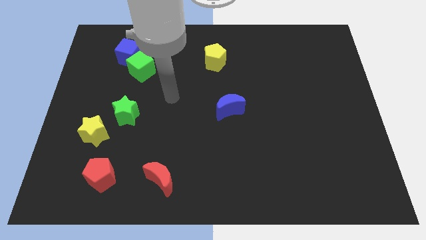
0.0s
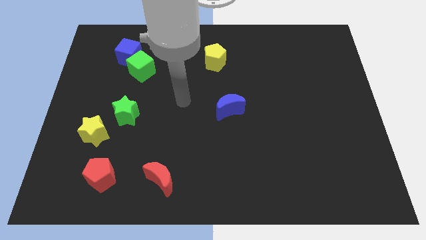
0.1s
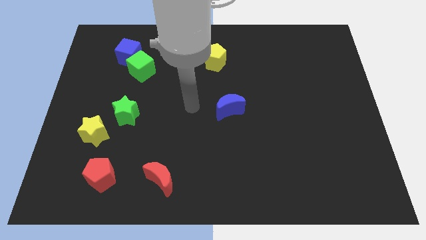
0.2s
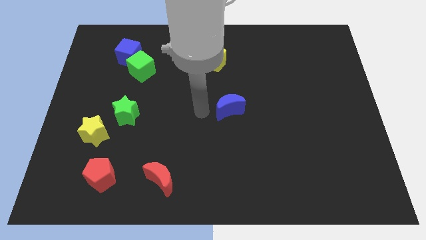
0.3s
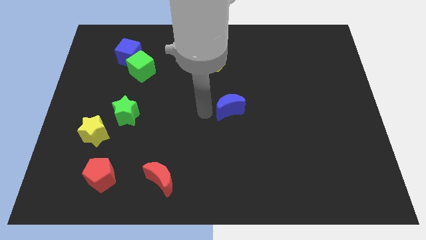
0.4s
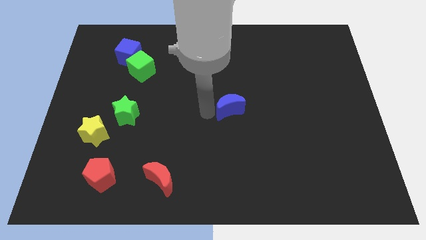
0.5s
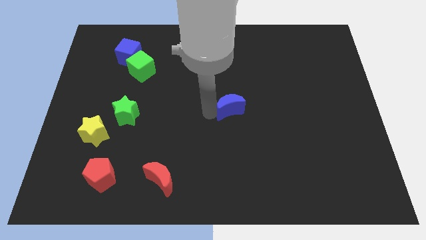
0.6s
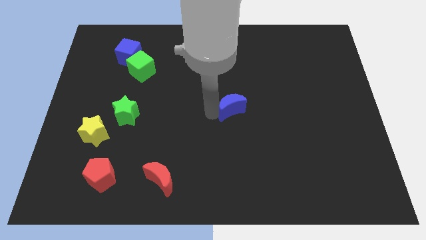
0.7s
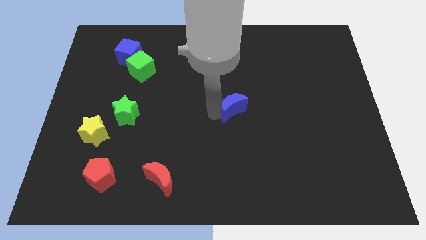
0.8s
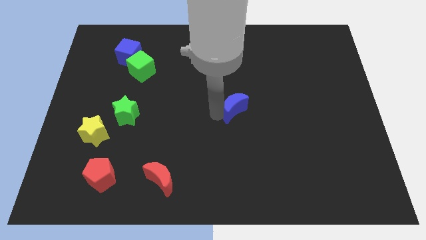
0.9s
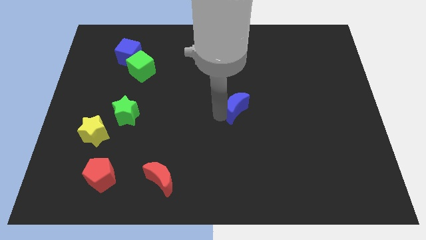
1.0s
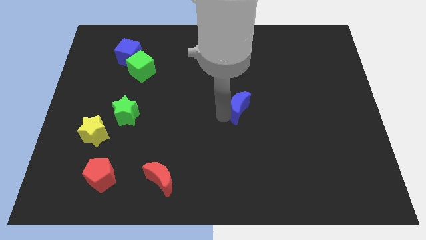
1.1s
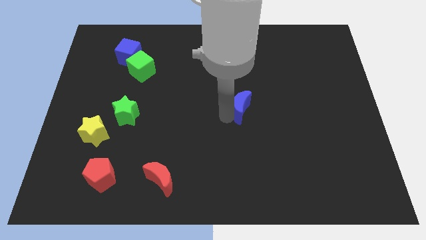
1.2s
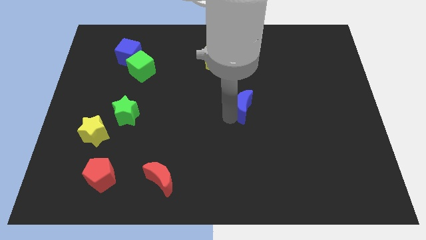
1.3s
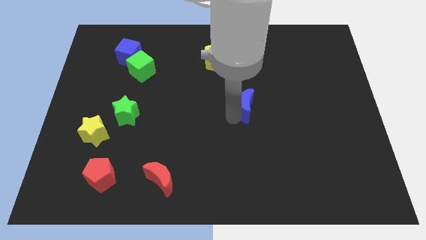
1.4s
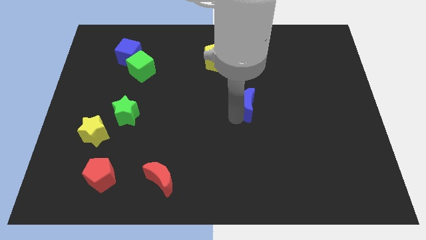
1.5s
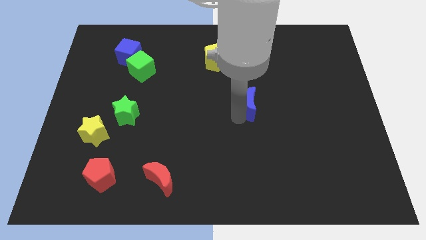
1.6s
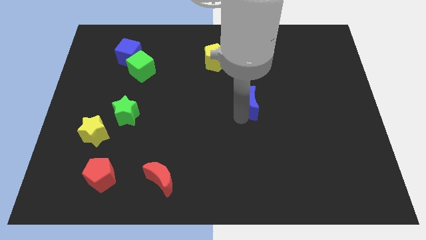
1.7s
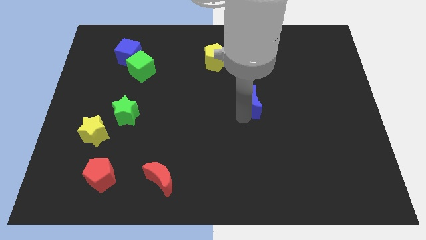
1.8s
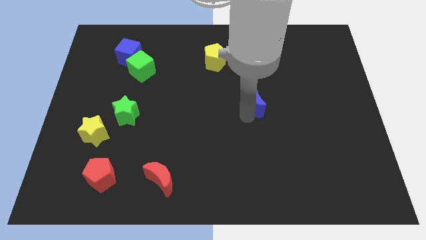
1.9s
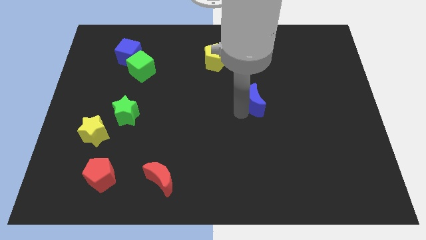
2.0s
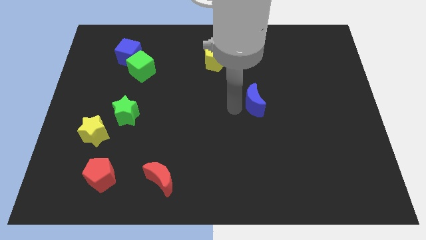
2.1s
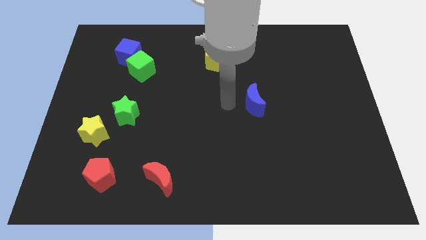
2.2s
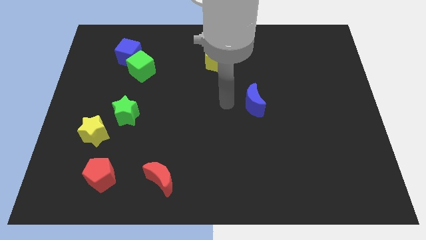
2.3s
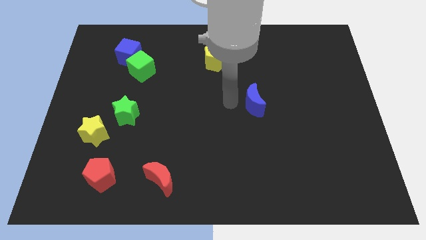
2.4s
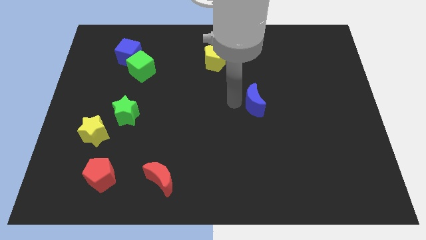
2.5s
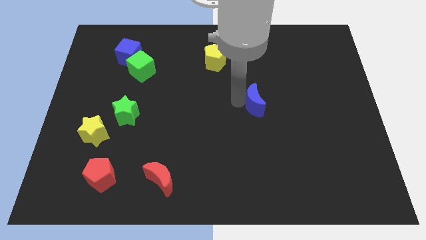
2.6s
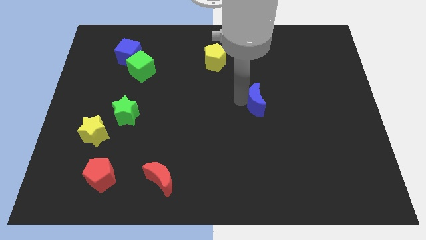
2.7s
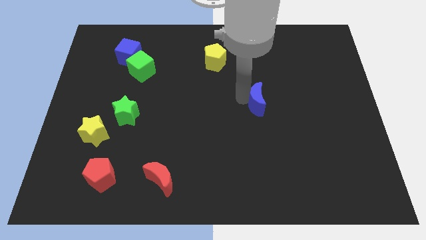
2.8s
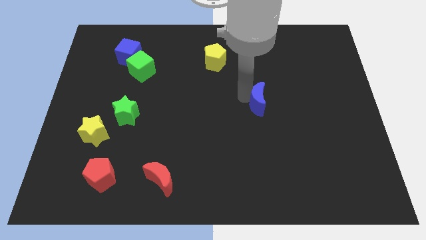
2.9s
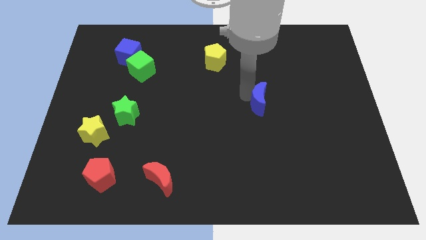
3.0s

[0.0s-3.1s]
slightly push the blue moon to the right

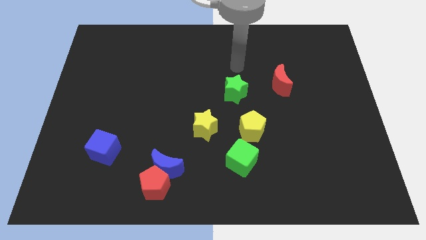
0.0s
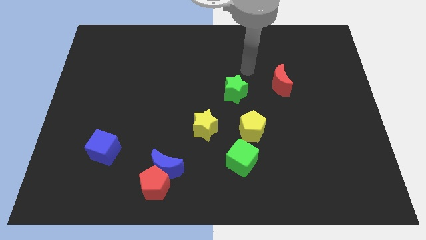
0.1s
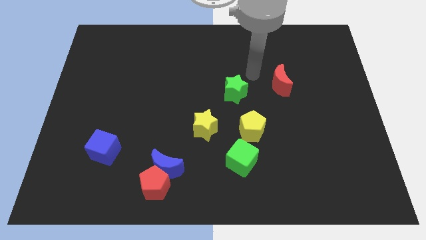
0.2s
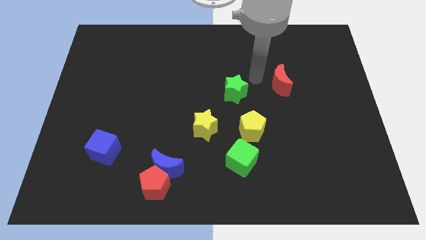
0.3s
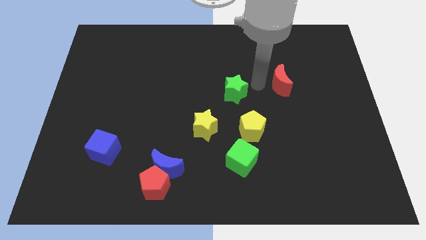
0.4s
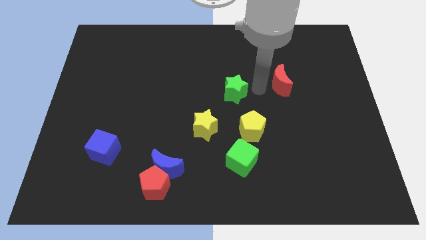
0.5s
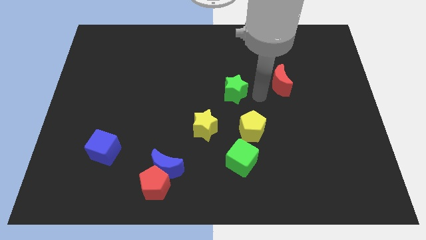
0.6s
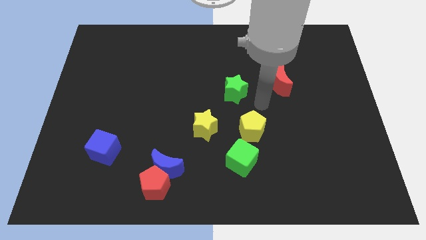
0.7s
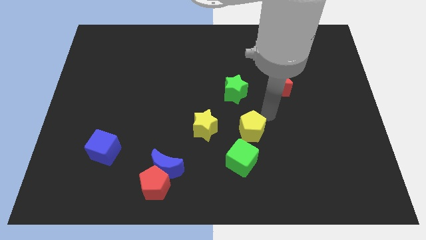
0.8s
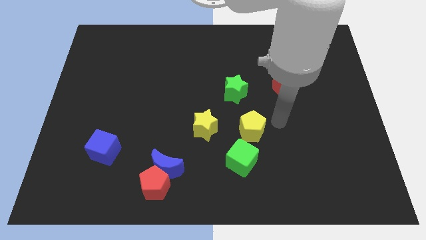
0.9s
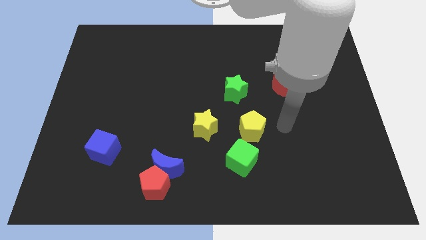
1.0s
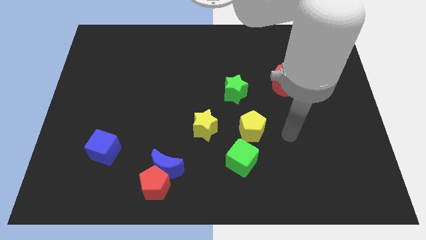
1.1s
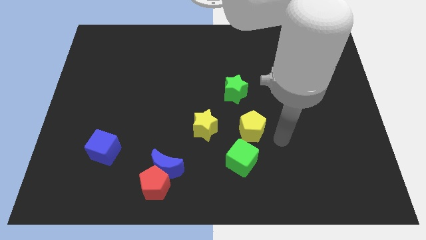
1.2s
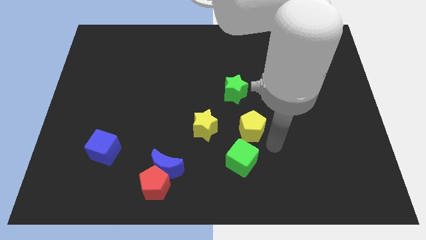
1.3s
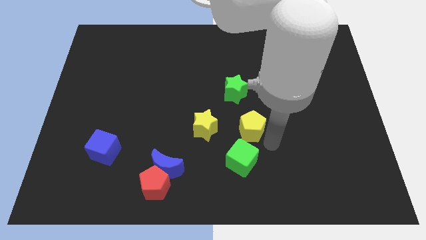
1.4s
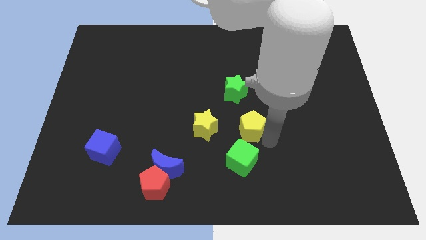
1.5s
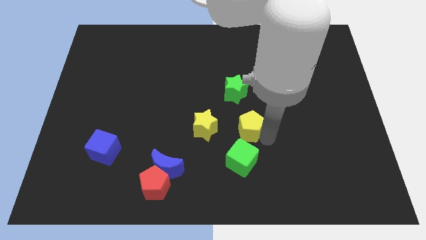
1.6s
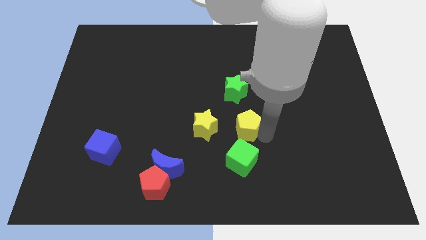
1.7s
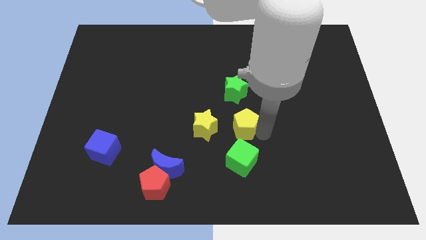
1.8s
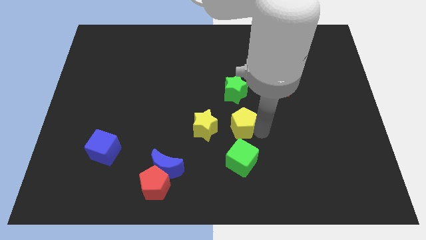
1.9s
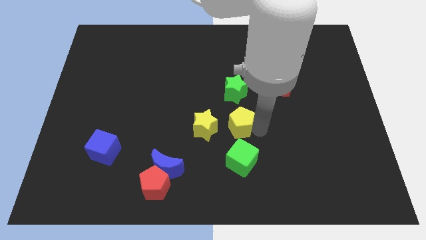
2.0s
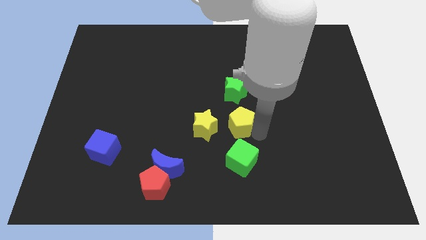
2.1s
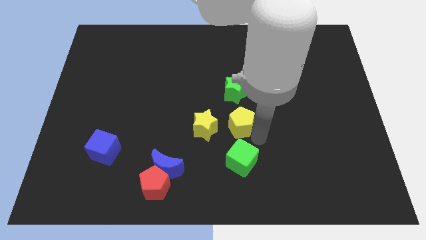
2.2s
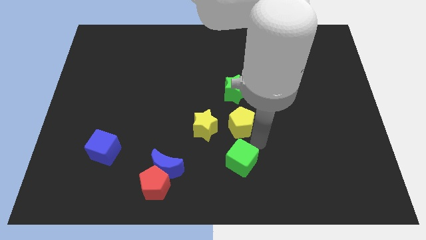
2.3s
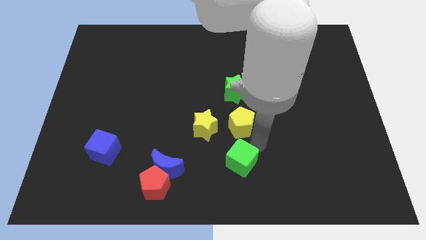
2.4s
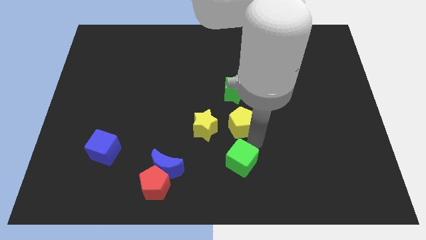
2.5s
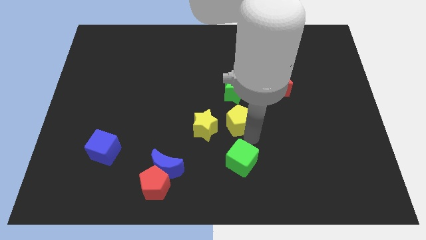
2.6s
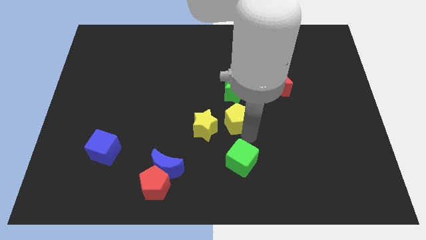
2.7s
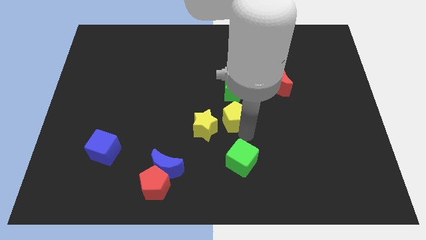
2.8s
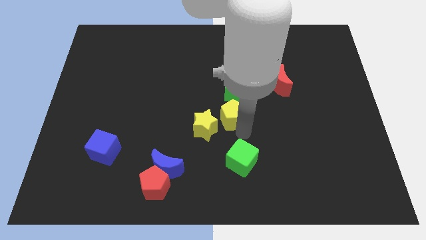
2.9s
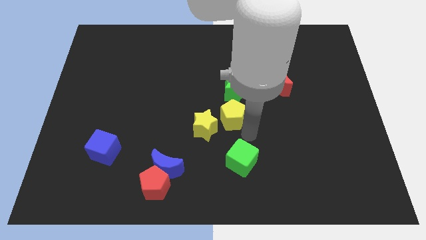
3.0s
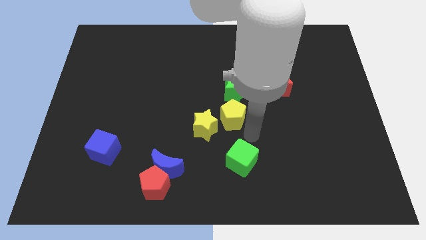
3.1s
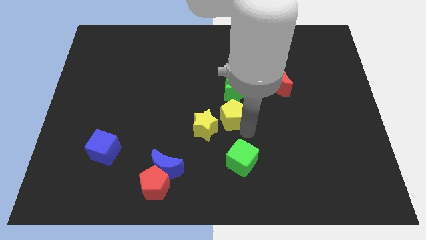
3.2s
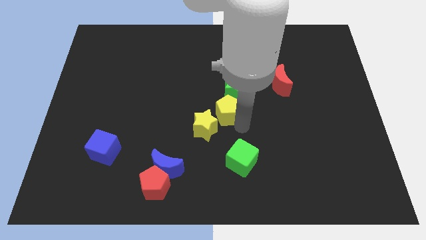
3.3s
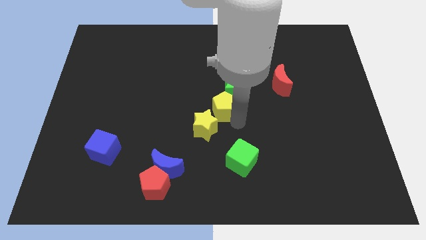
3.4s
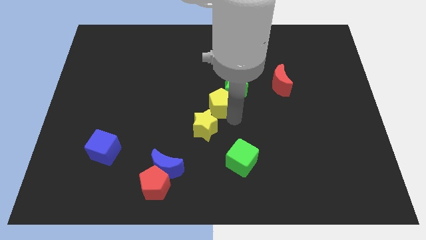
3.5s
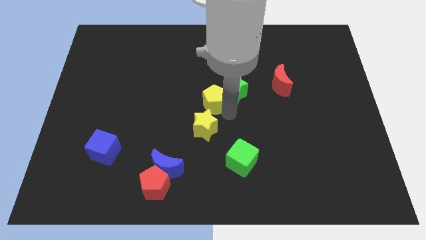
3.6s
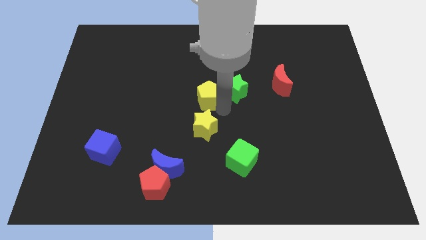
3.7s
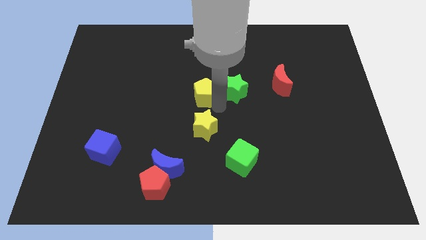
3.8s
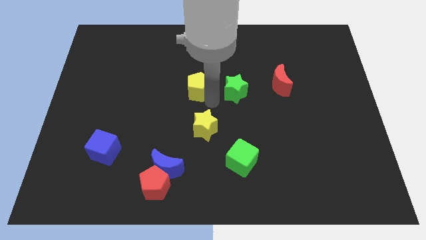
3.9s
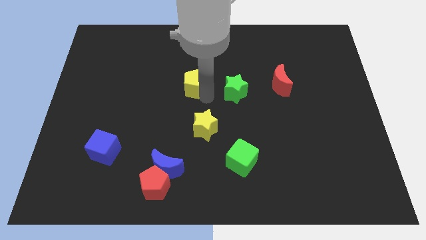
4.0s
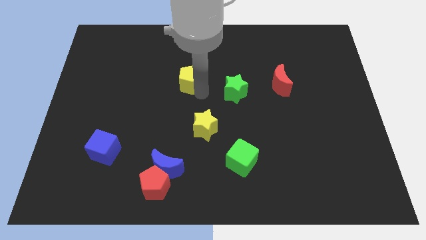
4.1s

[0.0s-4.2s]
slide the yellow pentagon up and then to the left

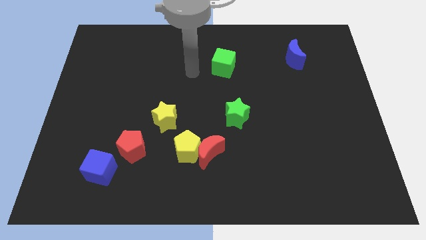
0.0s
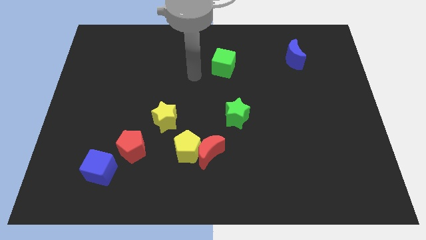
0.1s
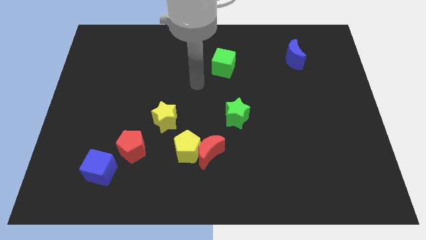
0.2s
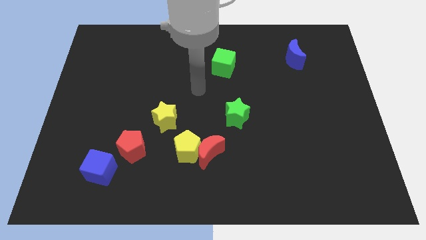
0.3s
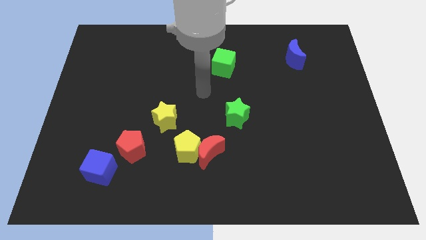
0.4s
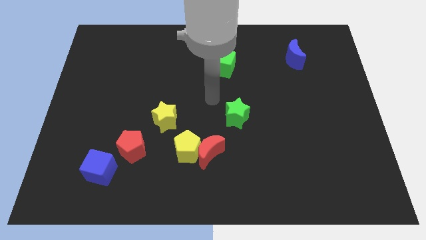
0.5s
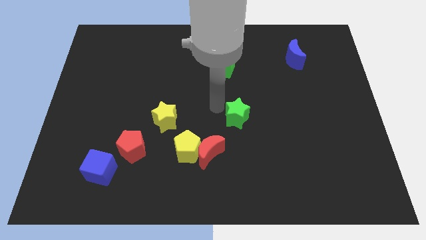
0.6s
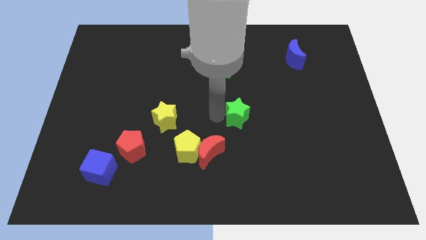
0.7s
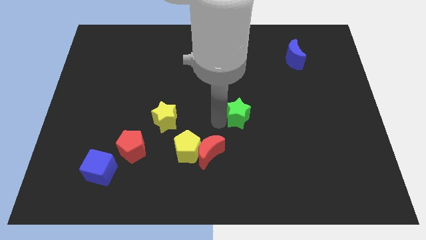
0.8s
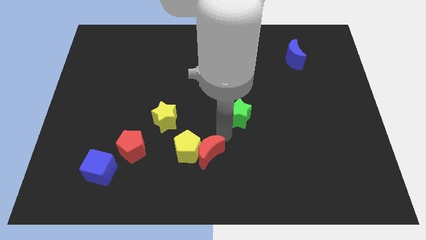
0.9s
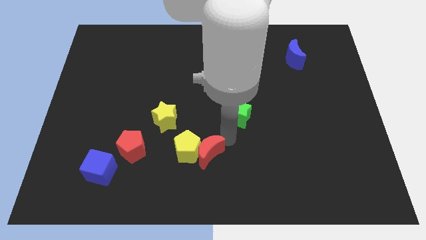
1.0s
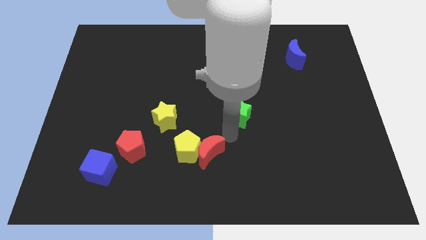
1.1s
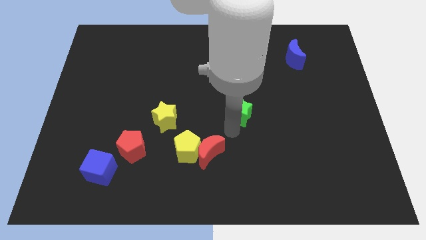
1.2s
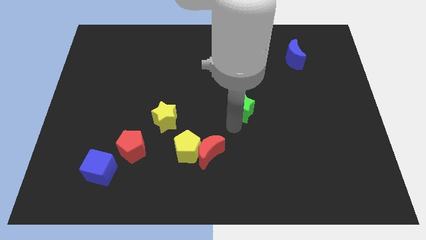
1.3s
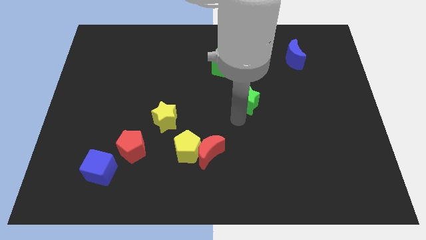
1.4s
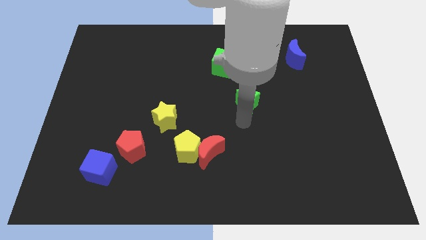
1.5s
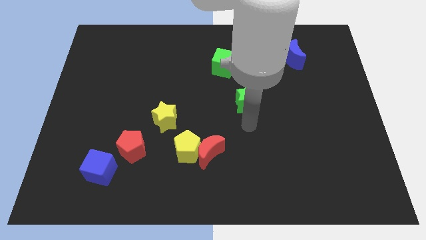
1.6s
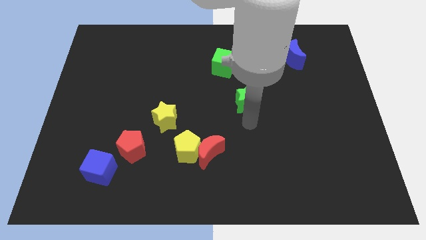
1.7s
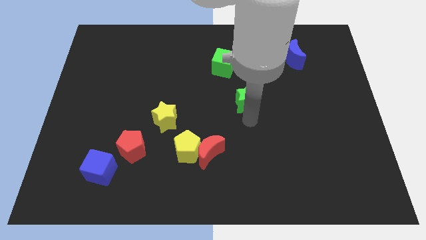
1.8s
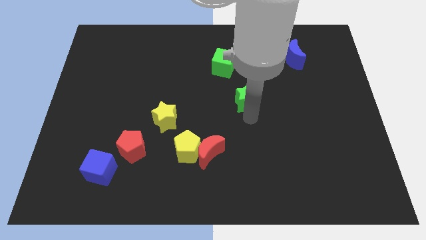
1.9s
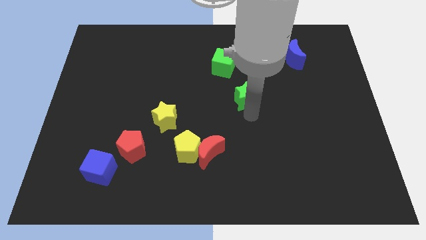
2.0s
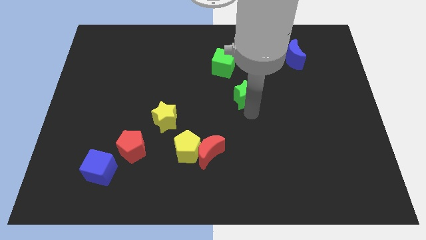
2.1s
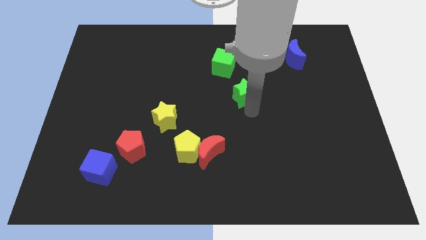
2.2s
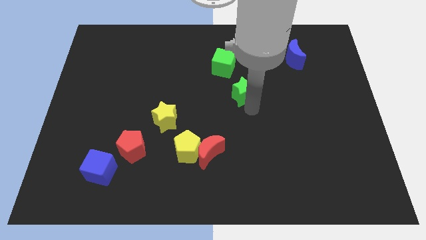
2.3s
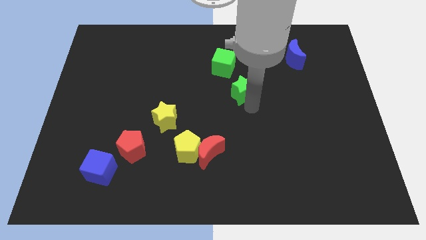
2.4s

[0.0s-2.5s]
slightly slide the green star up
